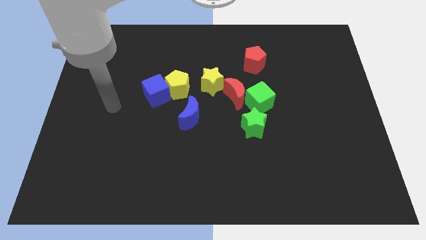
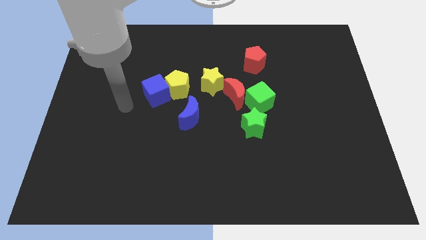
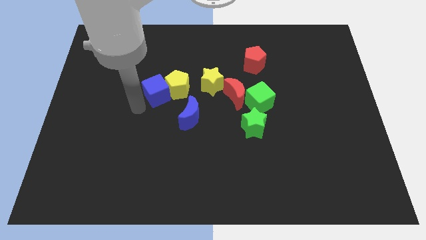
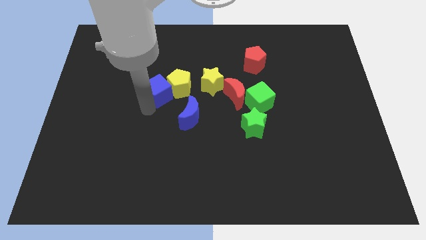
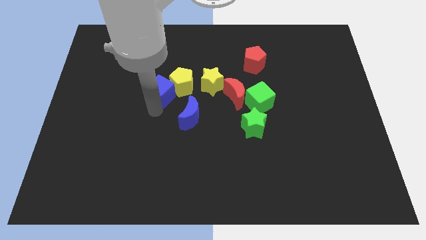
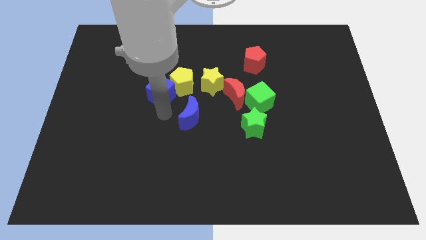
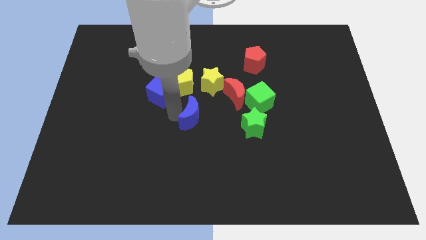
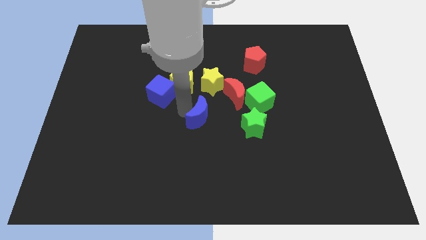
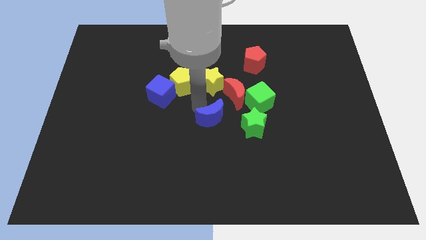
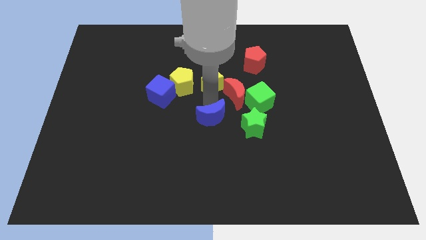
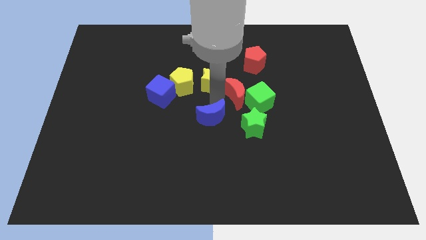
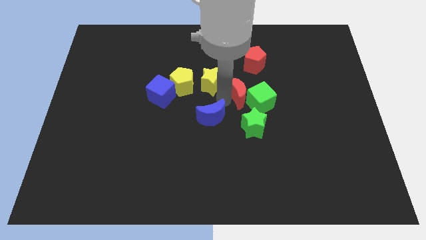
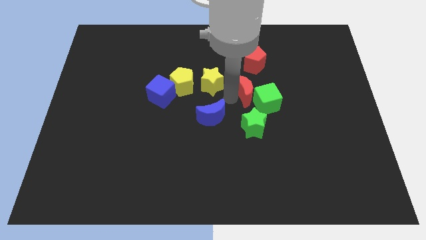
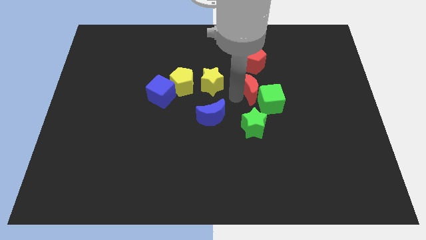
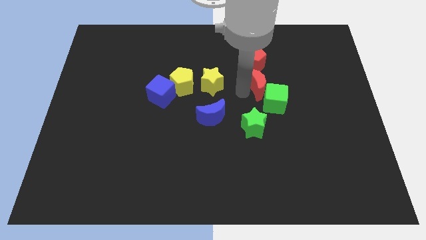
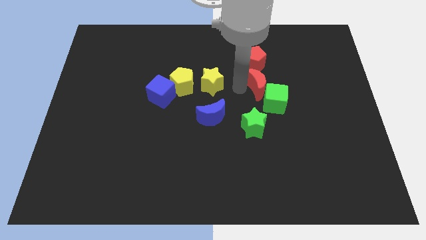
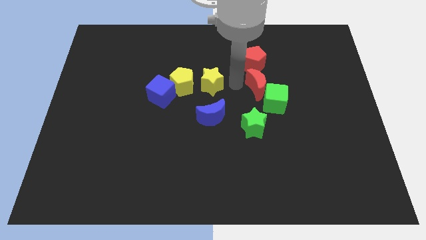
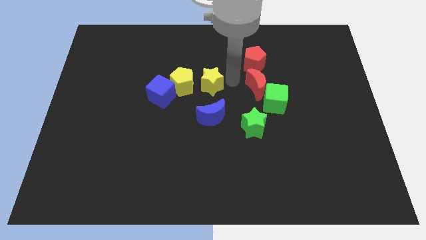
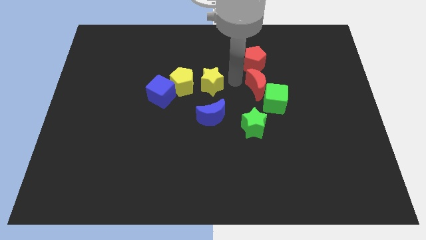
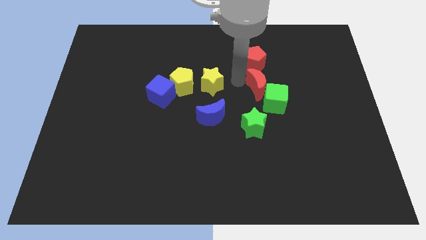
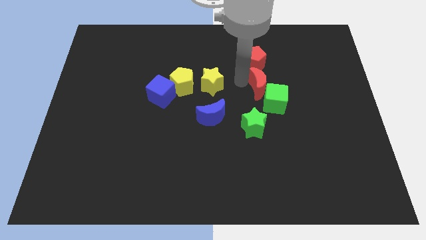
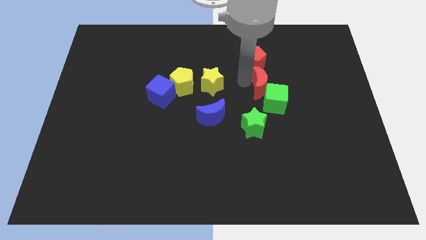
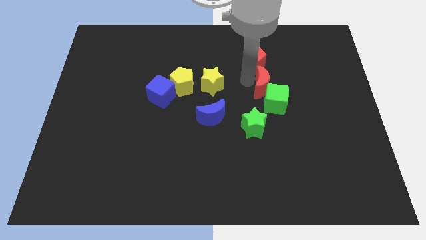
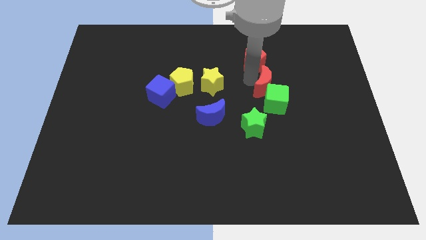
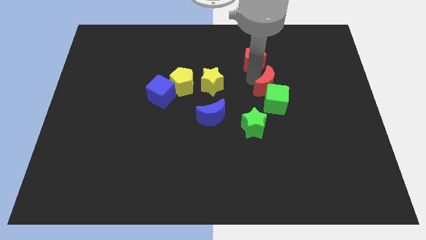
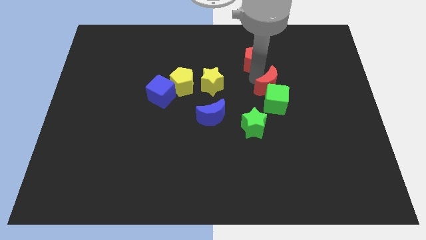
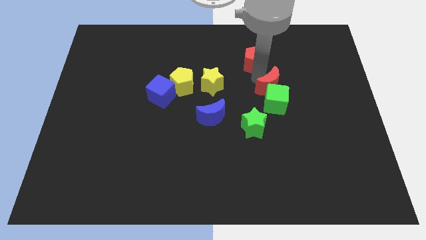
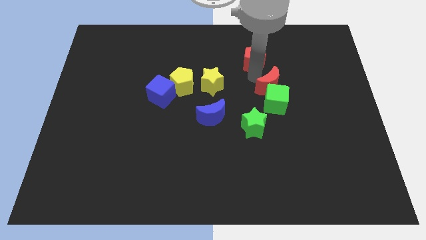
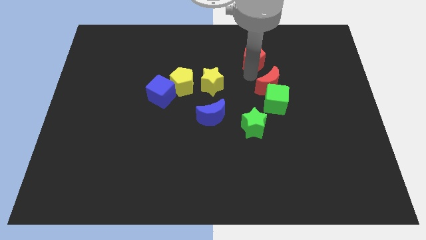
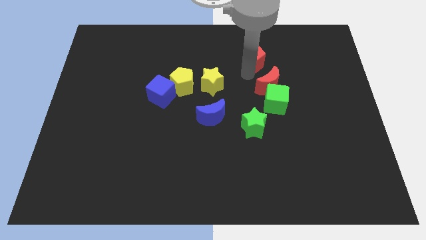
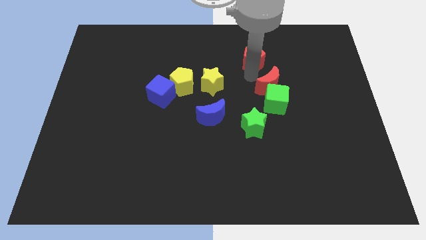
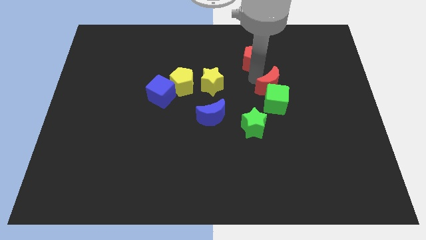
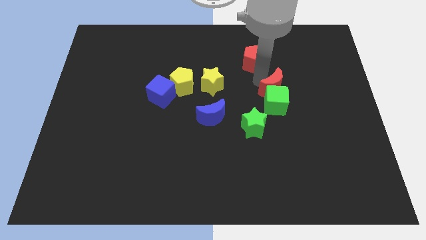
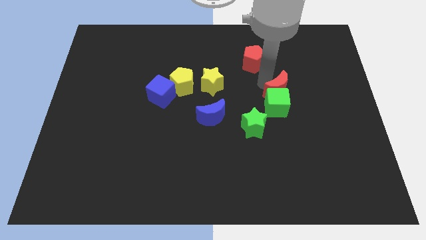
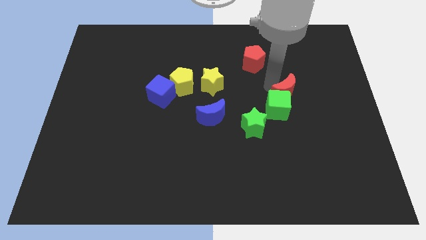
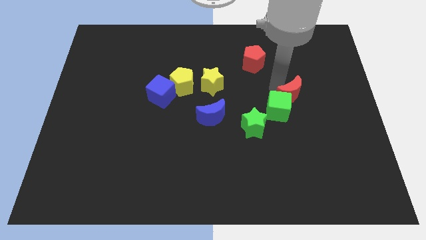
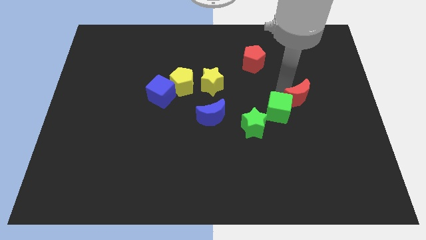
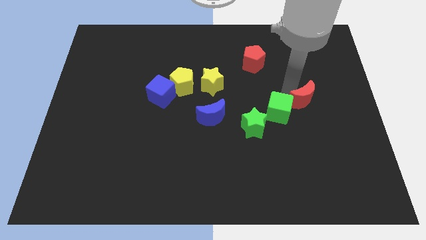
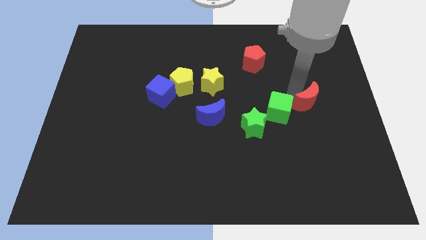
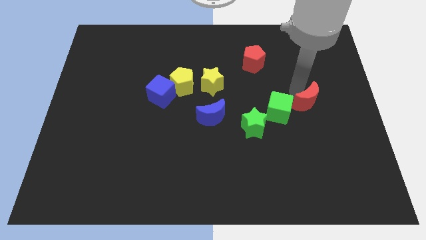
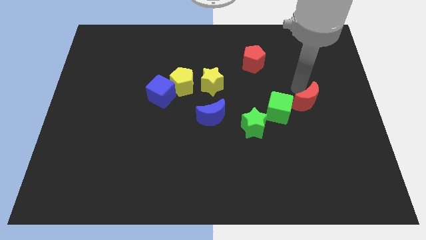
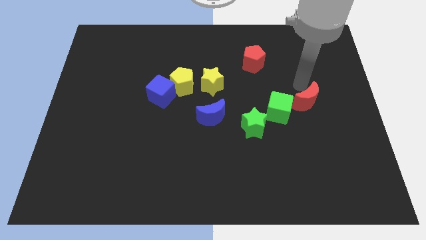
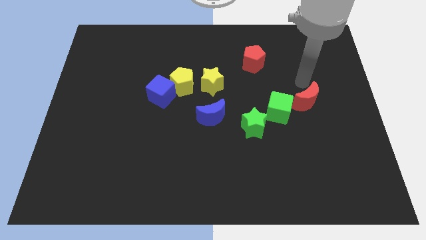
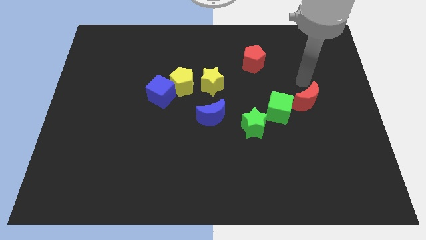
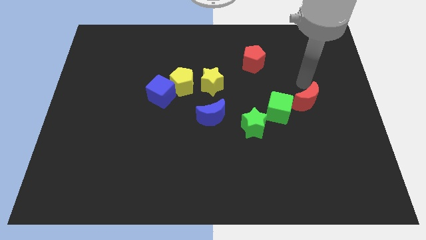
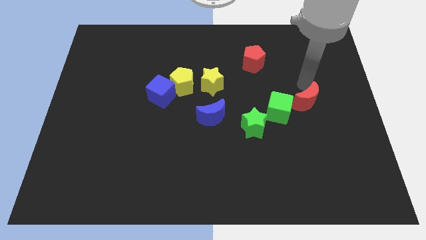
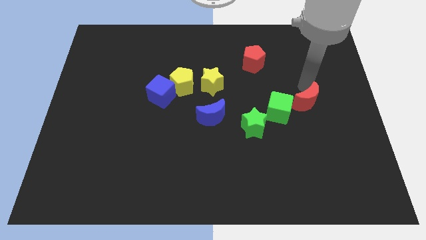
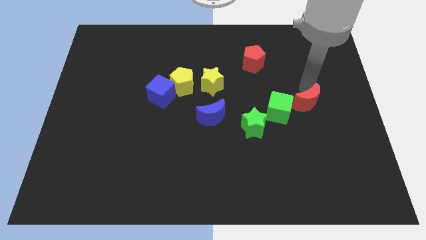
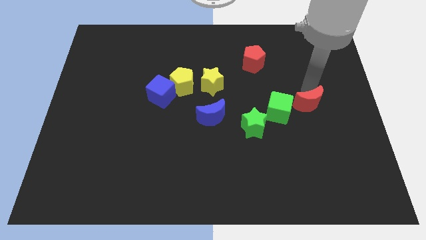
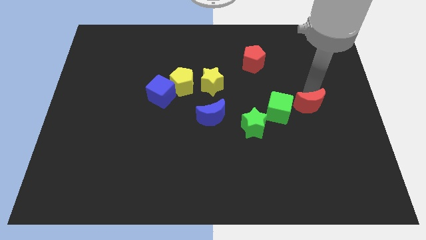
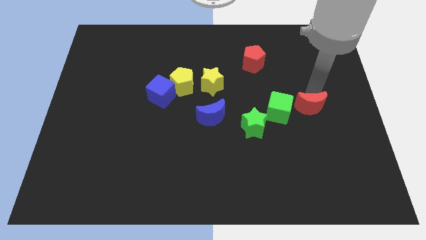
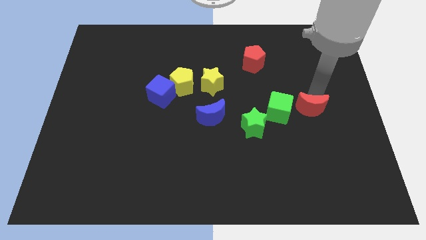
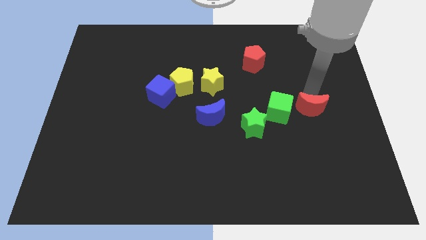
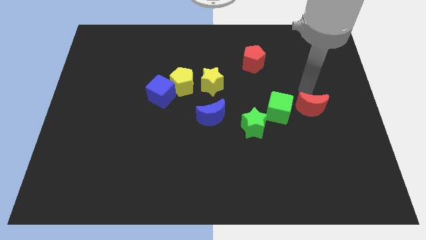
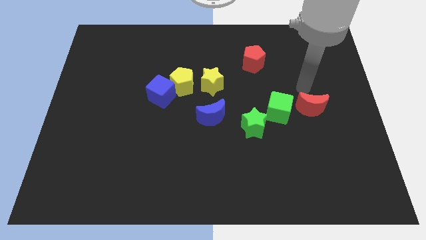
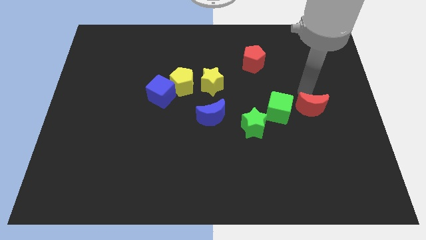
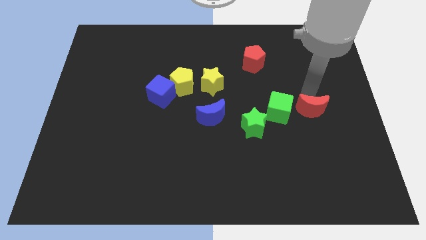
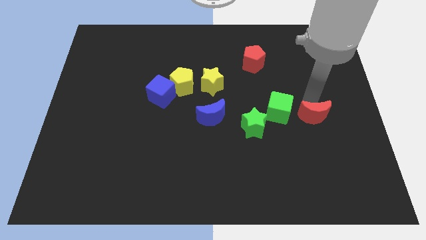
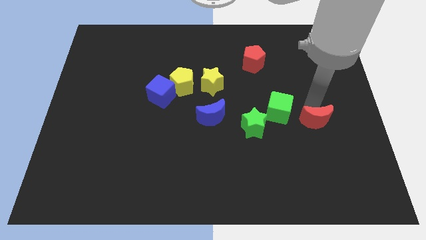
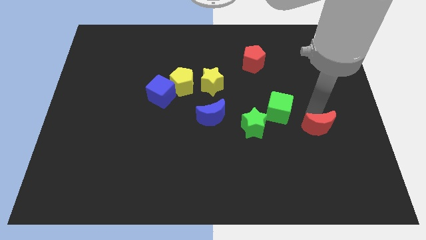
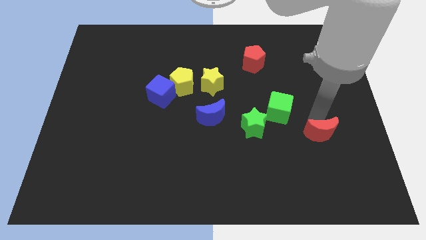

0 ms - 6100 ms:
move the red moon downwards and then right

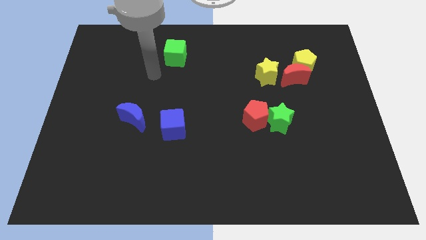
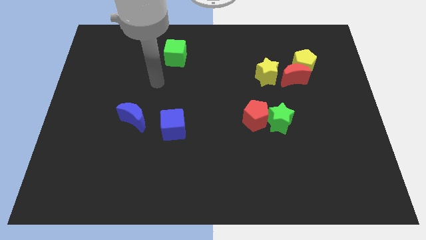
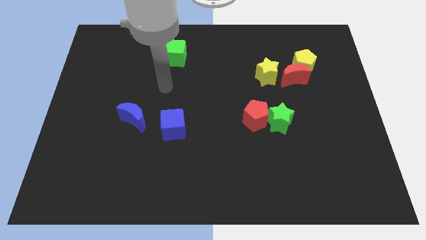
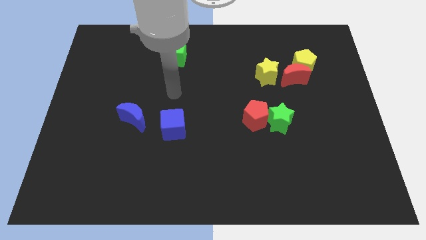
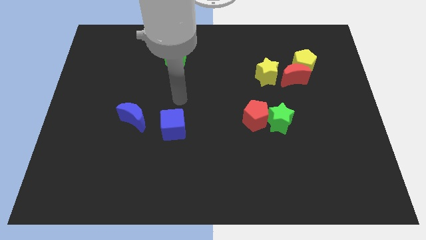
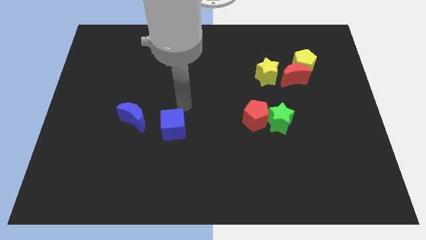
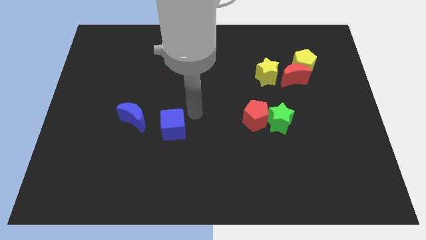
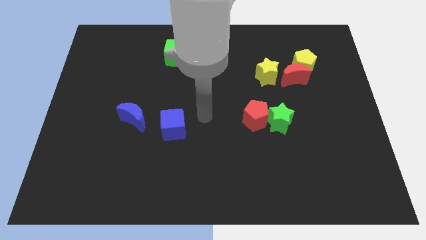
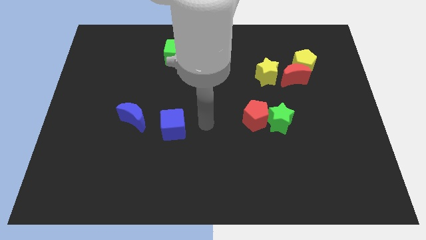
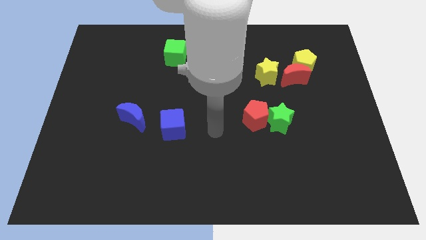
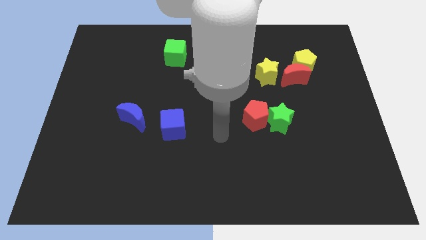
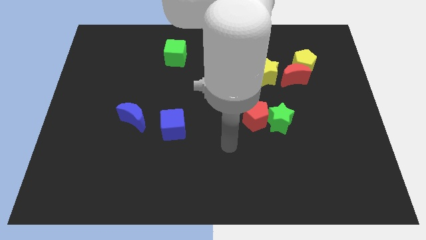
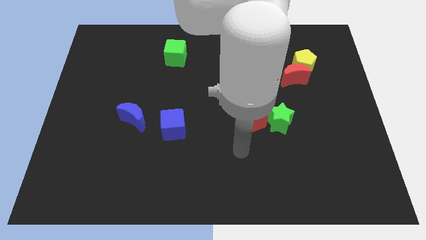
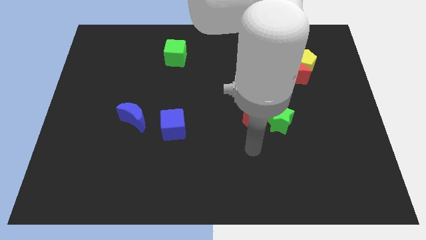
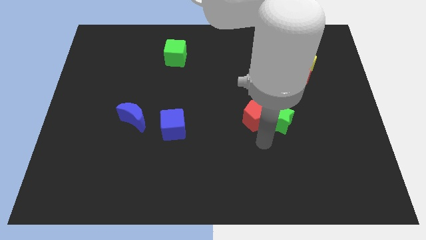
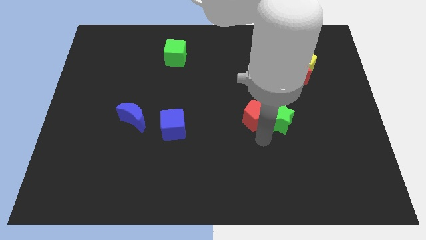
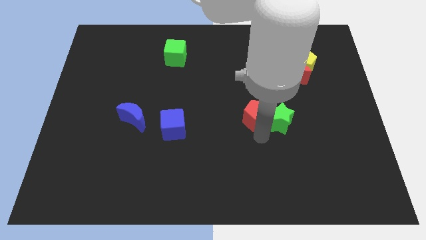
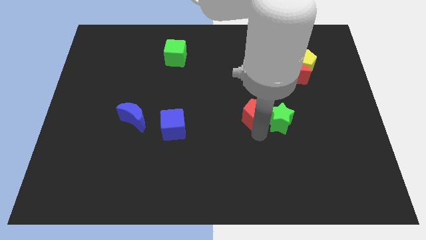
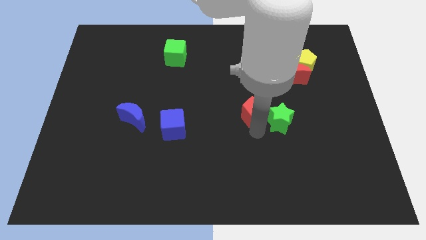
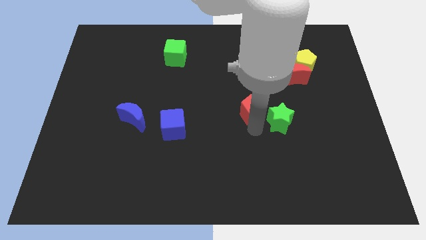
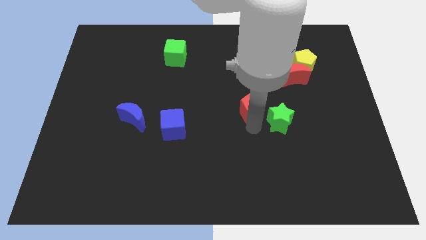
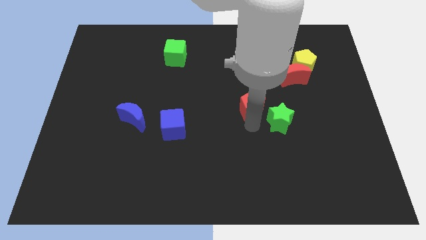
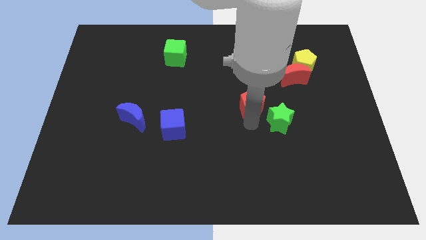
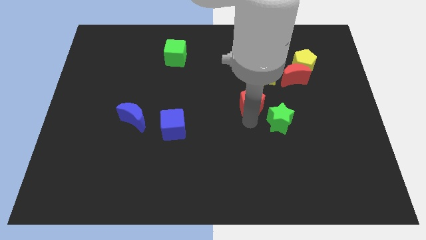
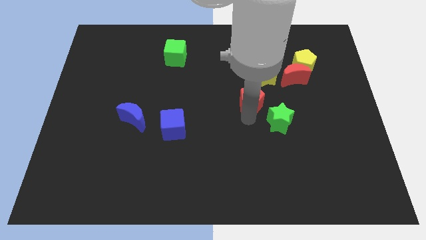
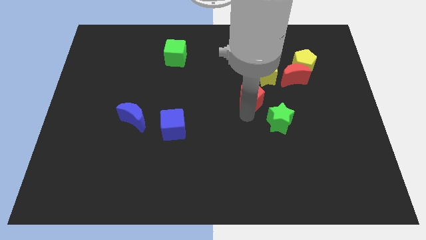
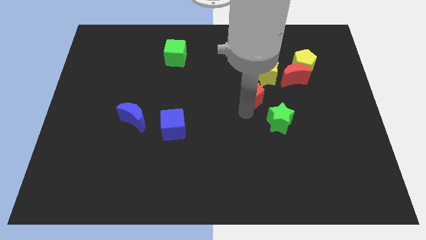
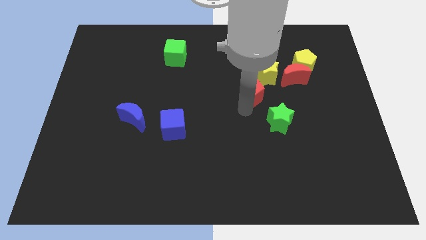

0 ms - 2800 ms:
slightly slide the red pentagon upwards
